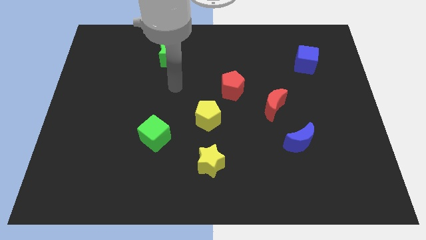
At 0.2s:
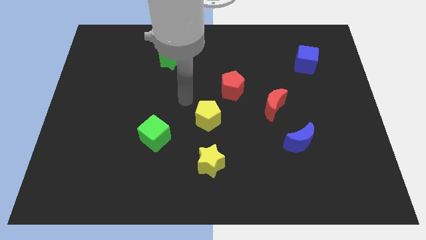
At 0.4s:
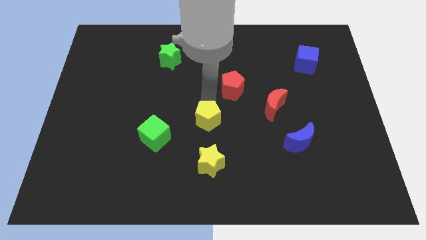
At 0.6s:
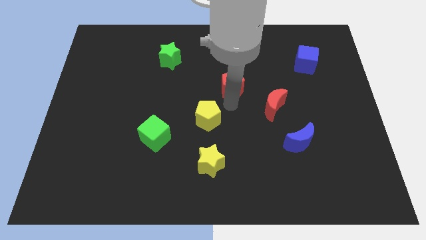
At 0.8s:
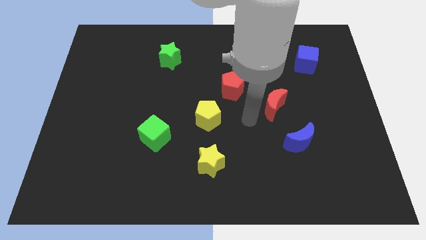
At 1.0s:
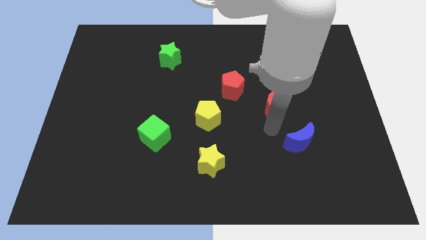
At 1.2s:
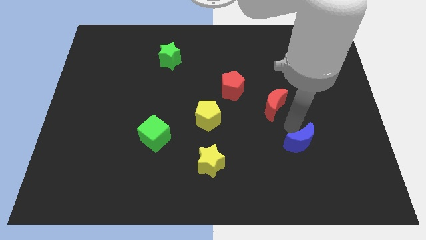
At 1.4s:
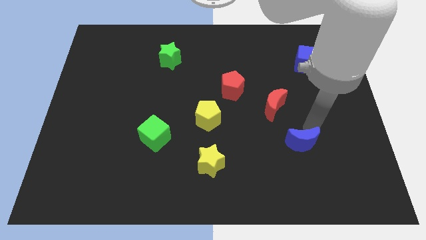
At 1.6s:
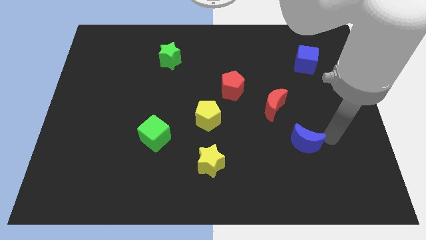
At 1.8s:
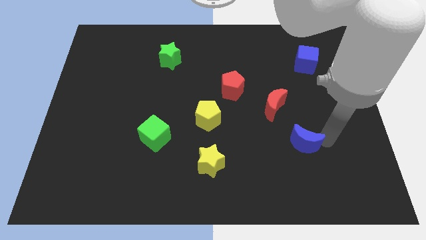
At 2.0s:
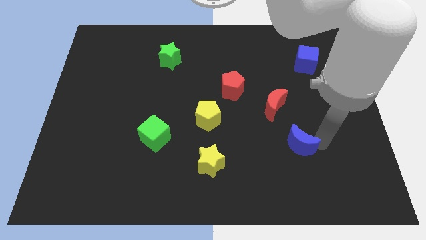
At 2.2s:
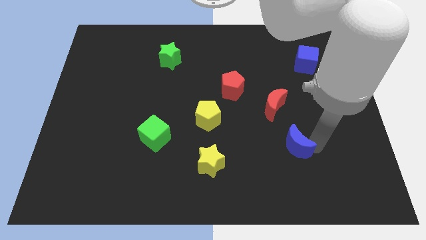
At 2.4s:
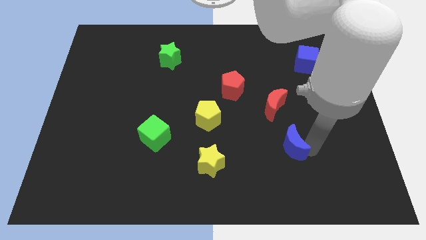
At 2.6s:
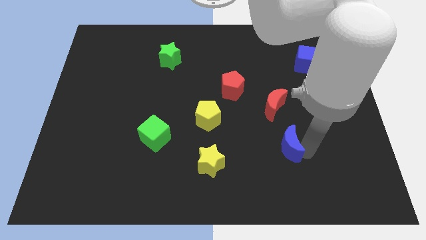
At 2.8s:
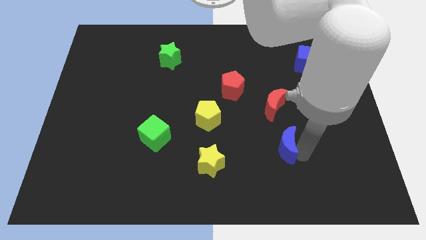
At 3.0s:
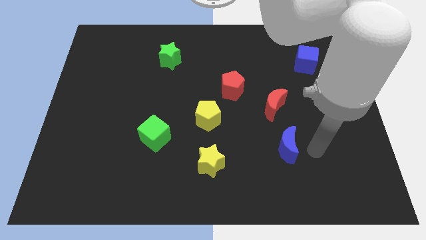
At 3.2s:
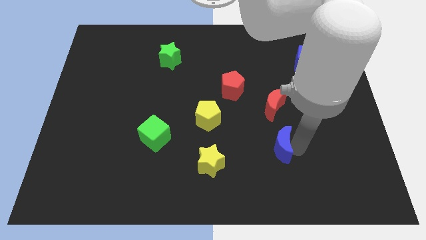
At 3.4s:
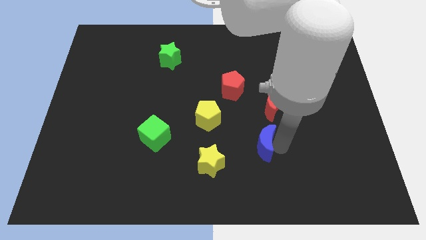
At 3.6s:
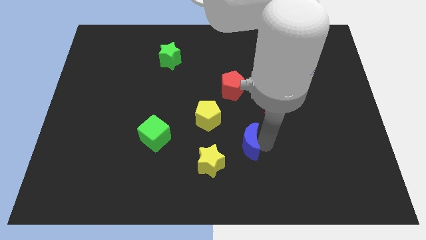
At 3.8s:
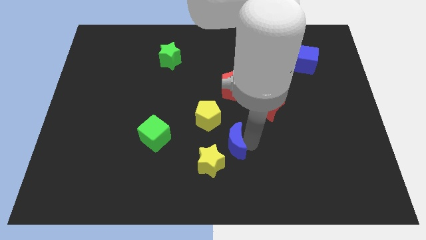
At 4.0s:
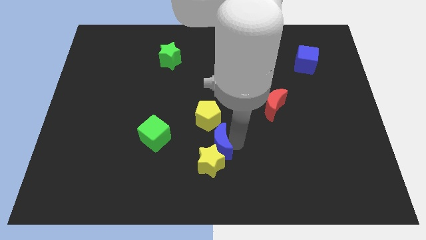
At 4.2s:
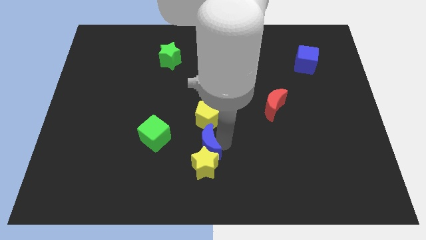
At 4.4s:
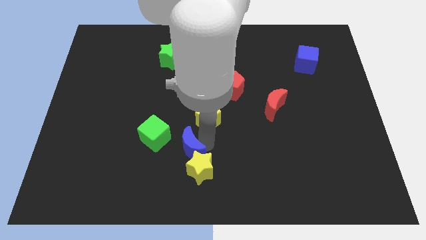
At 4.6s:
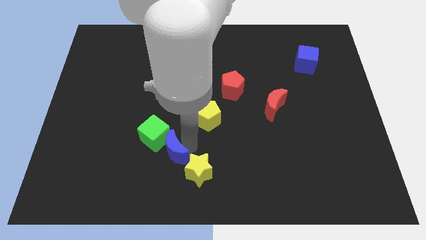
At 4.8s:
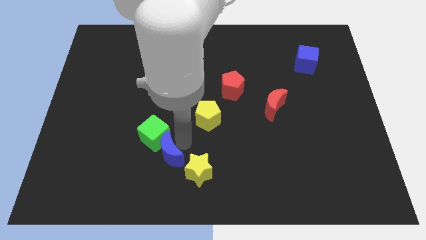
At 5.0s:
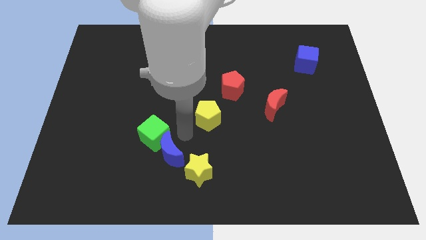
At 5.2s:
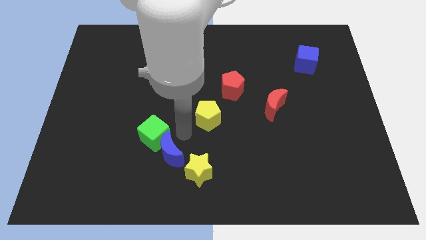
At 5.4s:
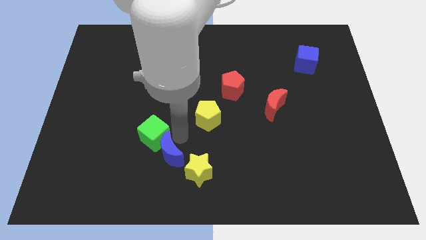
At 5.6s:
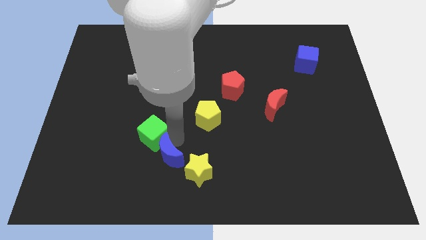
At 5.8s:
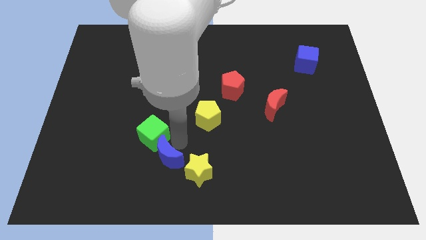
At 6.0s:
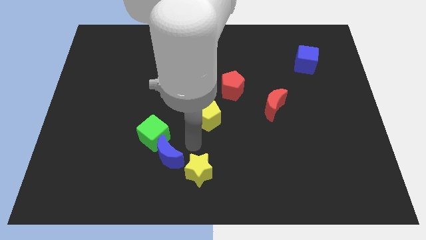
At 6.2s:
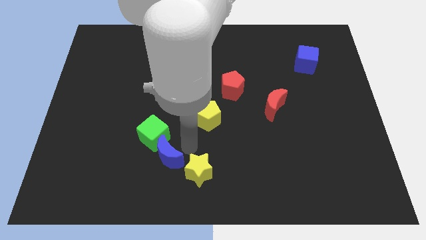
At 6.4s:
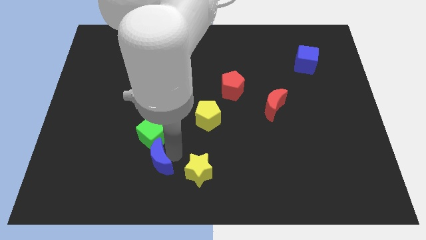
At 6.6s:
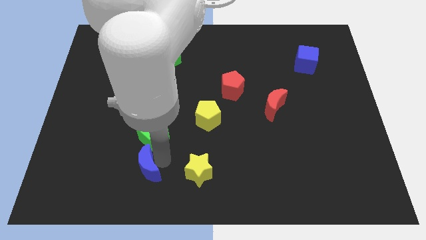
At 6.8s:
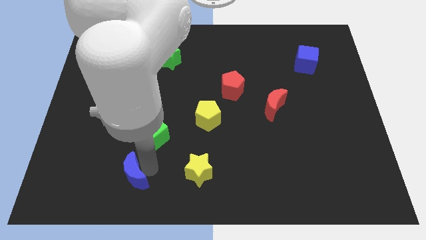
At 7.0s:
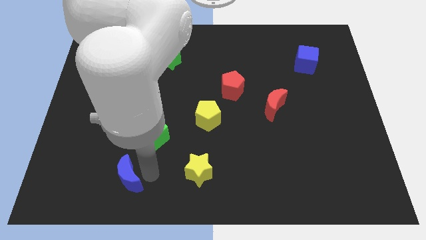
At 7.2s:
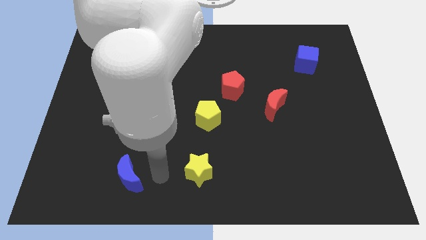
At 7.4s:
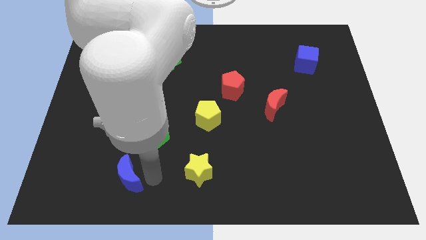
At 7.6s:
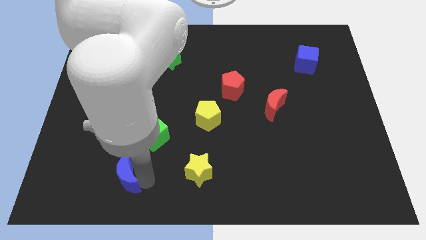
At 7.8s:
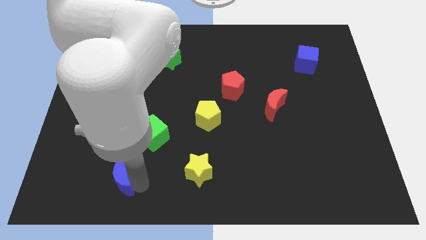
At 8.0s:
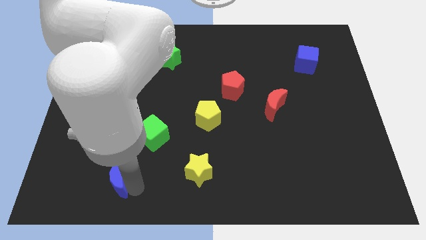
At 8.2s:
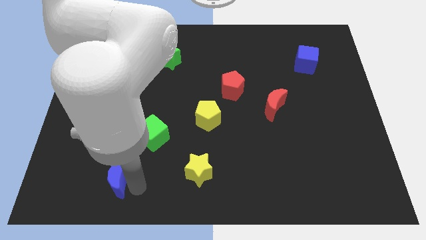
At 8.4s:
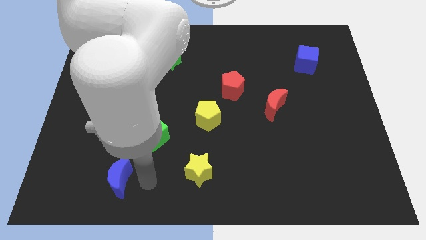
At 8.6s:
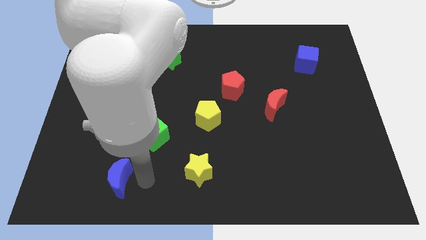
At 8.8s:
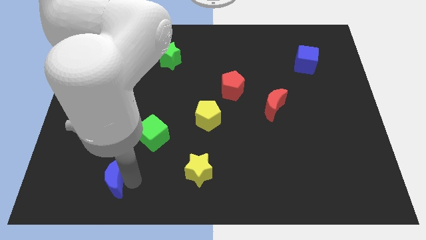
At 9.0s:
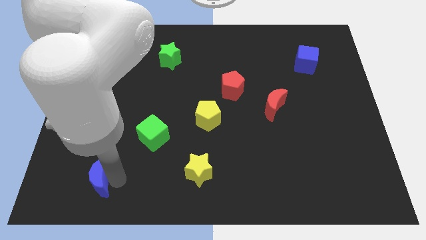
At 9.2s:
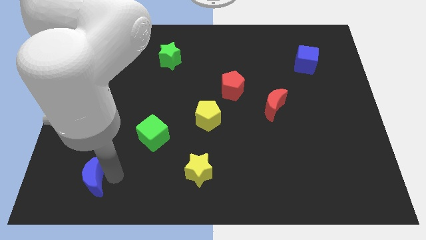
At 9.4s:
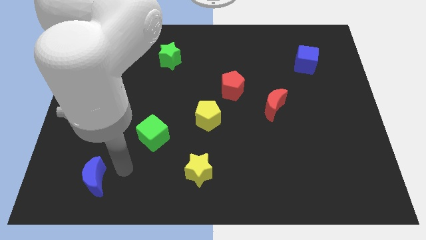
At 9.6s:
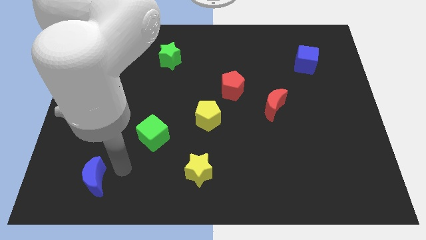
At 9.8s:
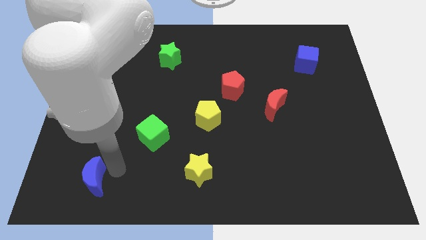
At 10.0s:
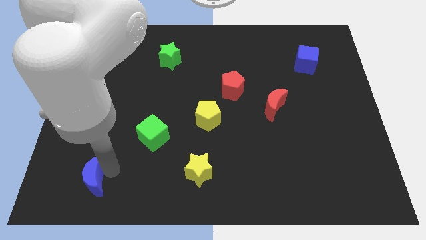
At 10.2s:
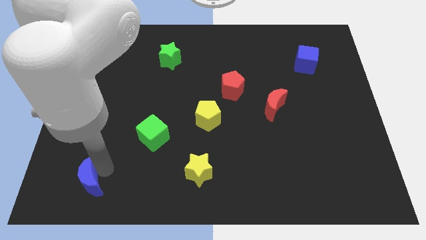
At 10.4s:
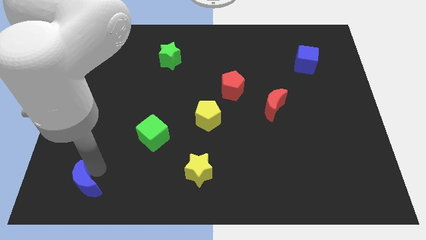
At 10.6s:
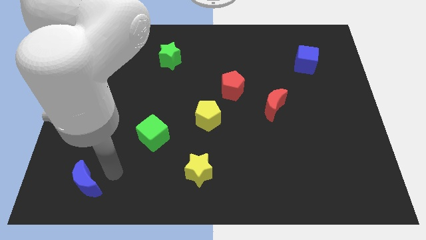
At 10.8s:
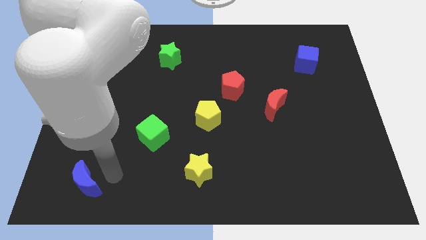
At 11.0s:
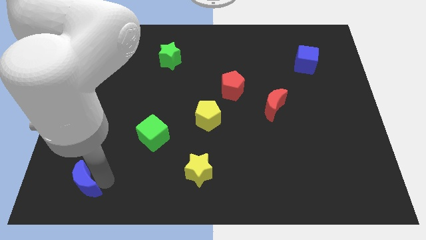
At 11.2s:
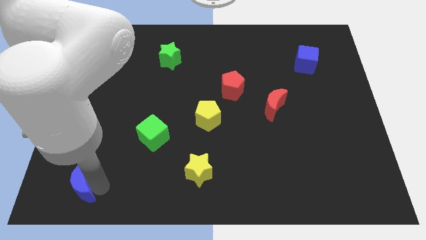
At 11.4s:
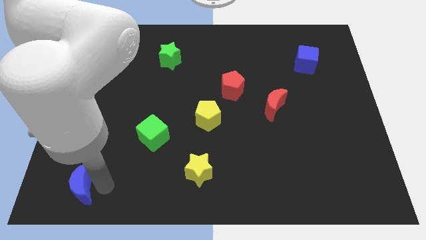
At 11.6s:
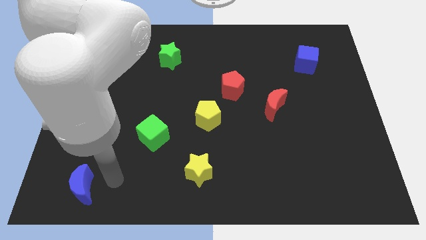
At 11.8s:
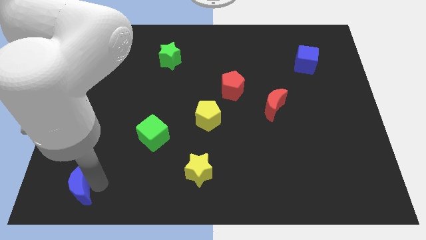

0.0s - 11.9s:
put the blue moon to the bottom left of the board
